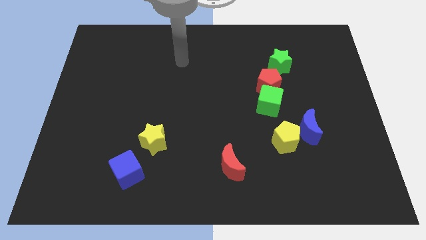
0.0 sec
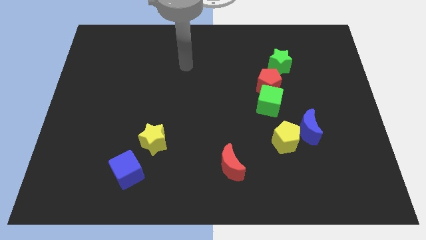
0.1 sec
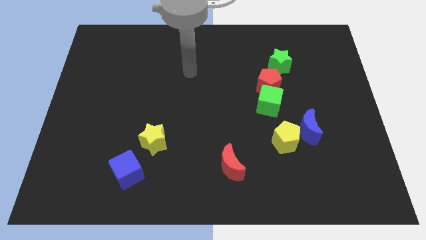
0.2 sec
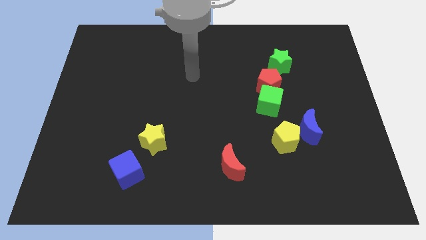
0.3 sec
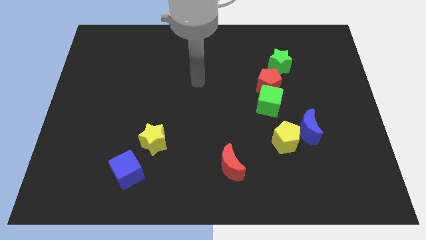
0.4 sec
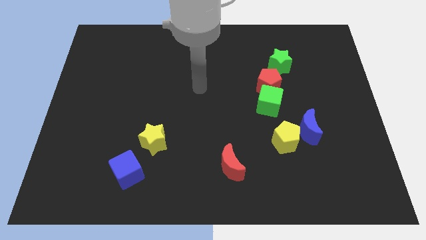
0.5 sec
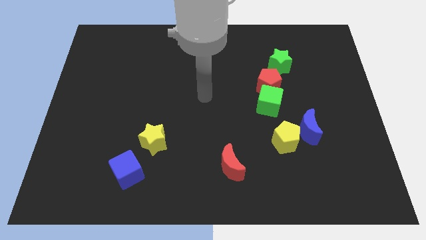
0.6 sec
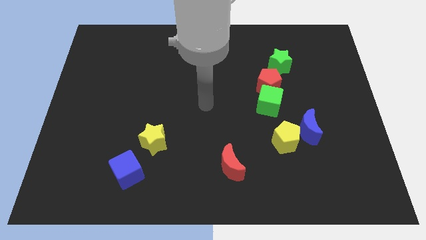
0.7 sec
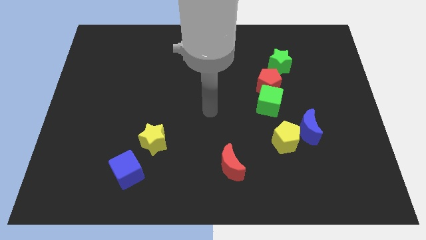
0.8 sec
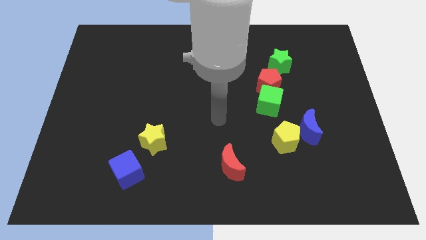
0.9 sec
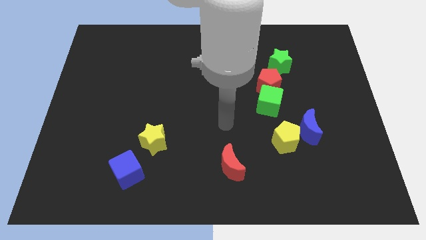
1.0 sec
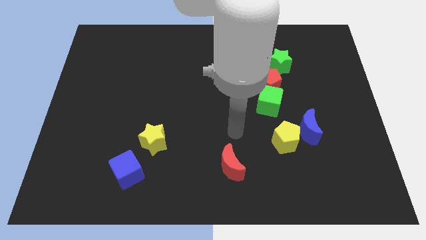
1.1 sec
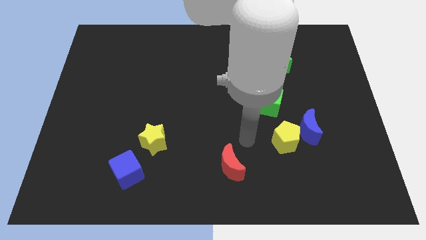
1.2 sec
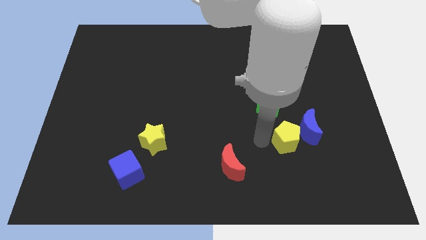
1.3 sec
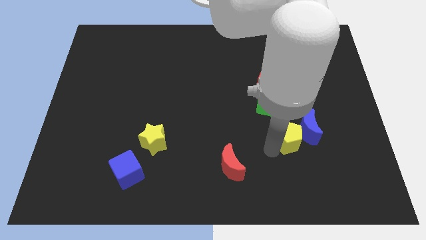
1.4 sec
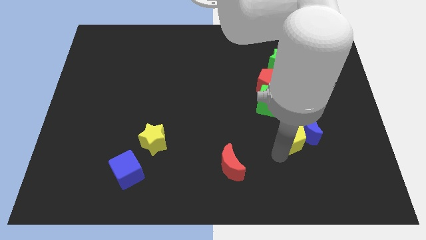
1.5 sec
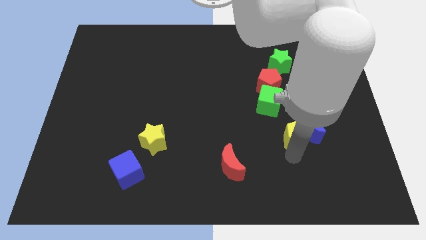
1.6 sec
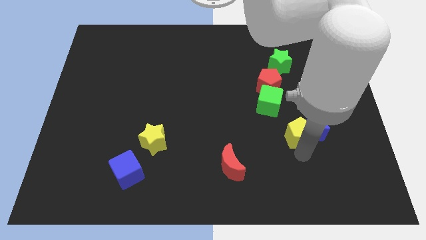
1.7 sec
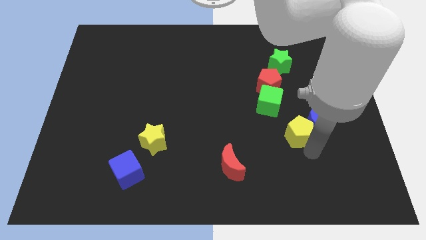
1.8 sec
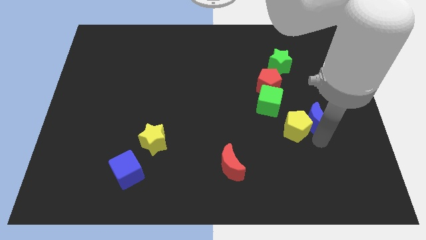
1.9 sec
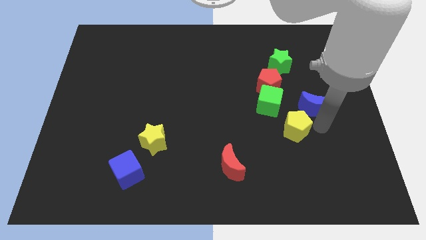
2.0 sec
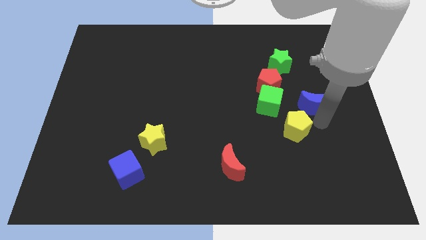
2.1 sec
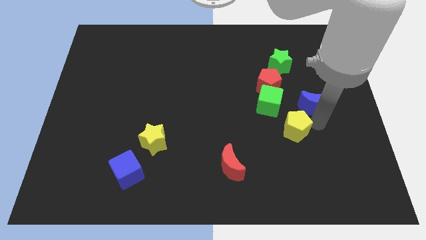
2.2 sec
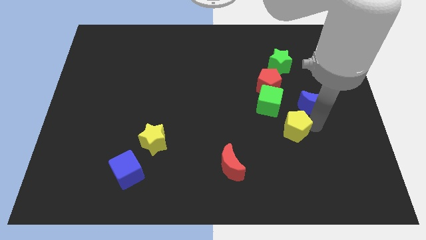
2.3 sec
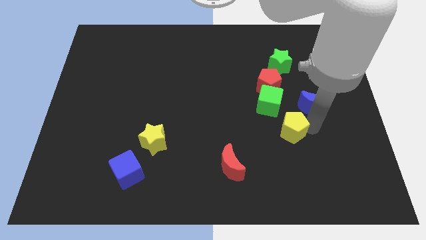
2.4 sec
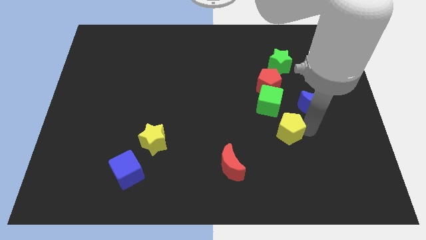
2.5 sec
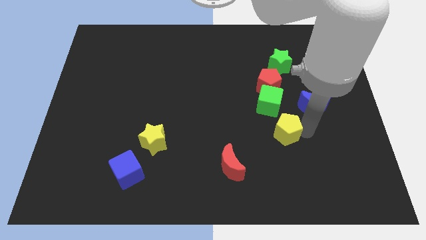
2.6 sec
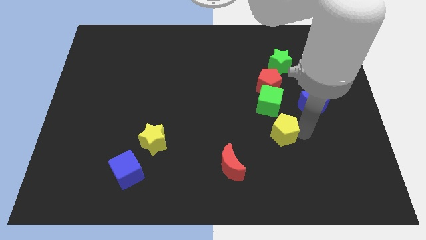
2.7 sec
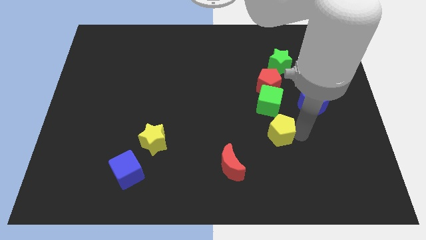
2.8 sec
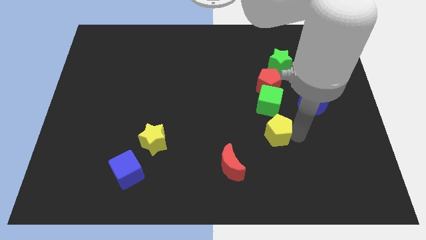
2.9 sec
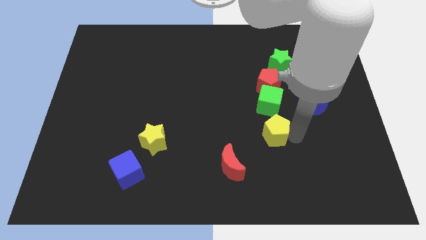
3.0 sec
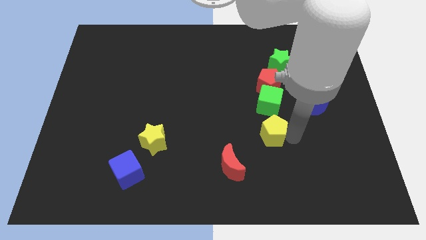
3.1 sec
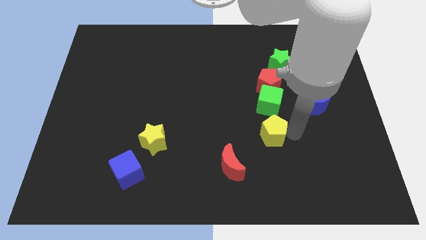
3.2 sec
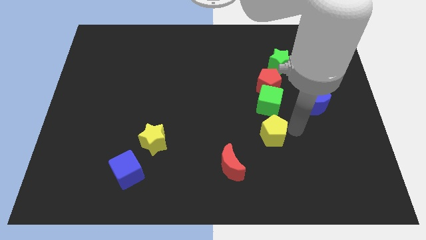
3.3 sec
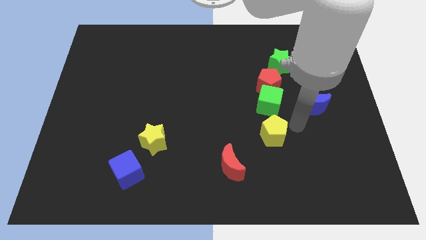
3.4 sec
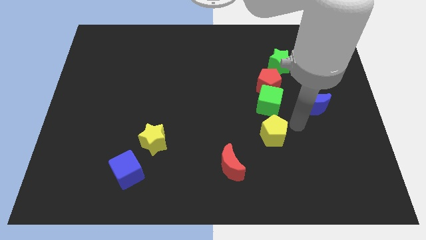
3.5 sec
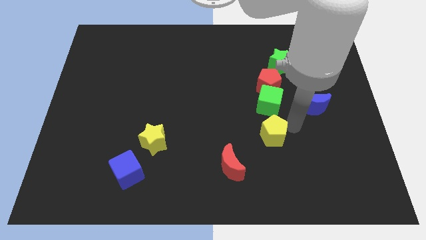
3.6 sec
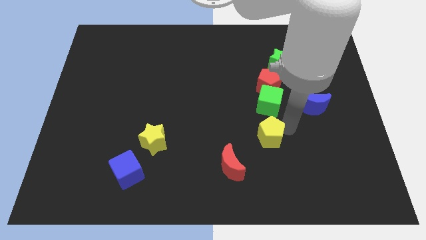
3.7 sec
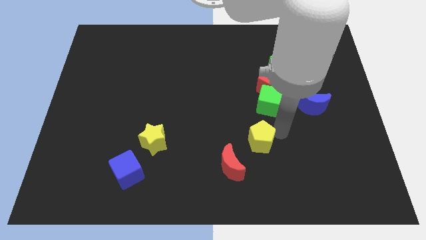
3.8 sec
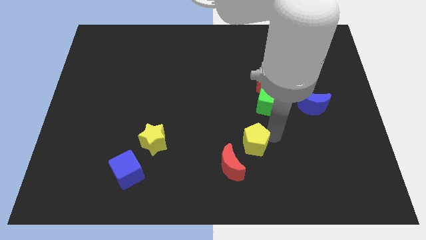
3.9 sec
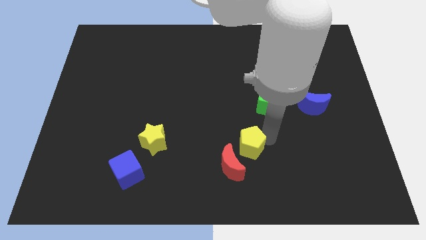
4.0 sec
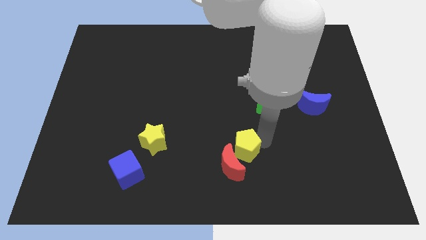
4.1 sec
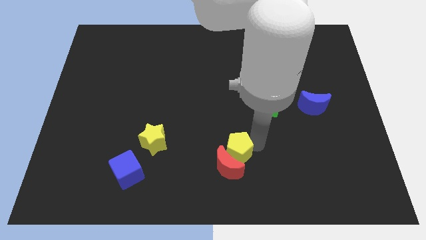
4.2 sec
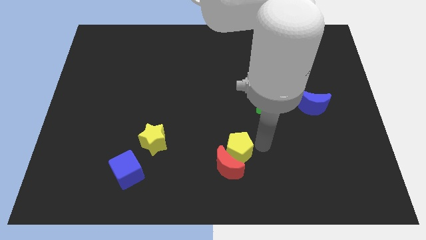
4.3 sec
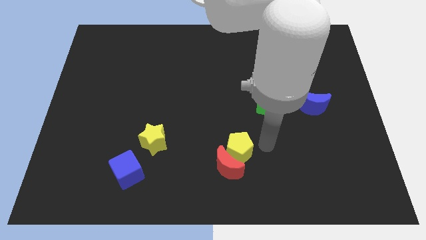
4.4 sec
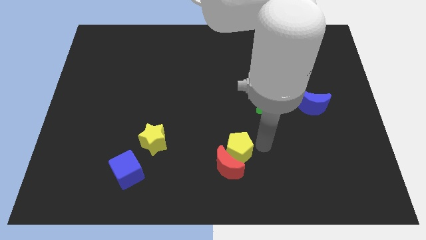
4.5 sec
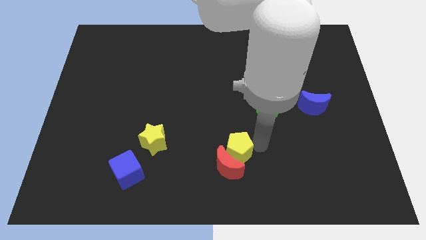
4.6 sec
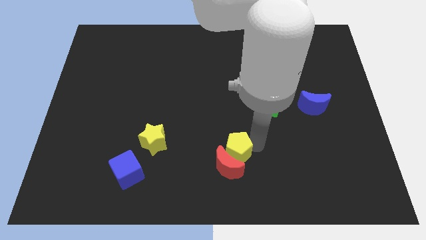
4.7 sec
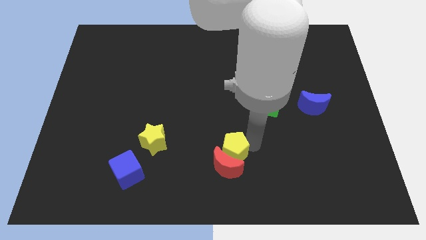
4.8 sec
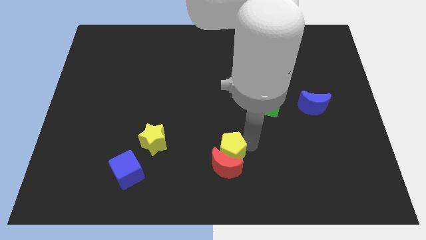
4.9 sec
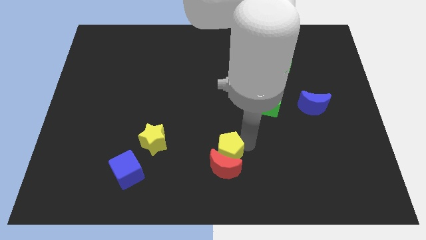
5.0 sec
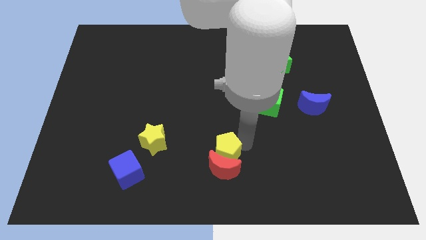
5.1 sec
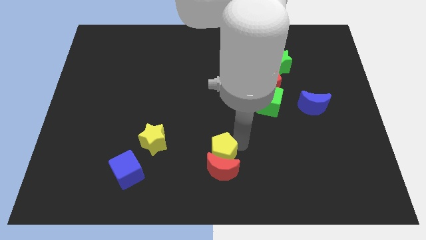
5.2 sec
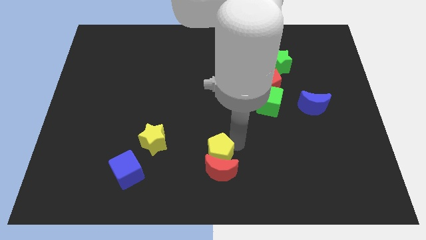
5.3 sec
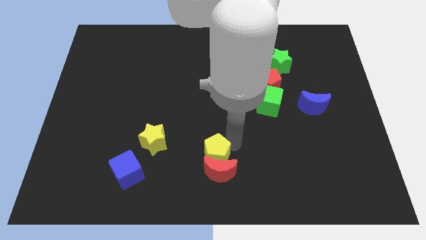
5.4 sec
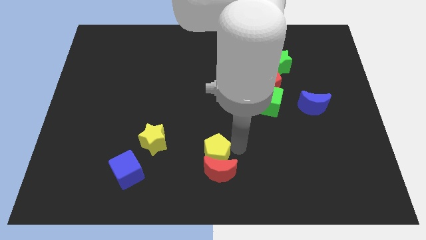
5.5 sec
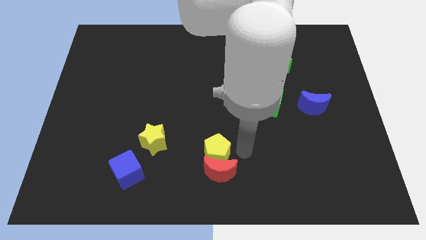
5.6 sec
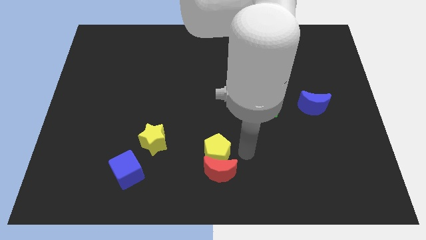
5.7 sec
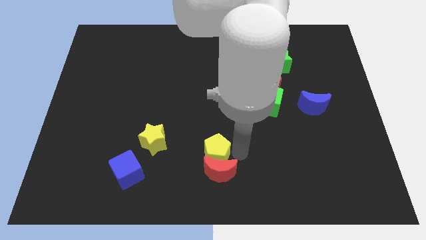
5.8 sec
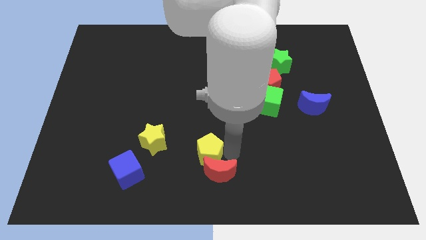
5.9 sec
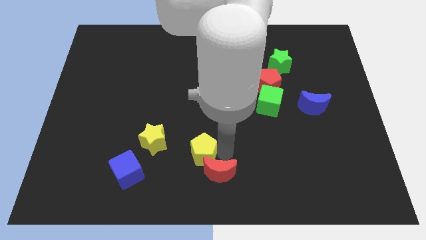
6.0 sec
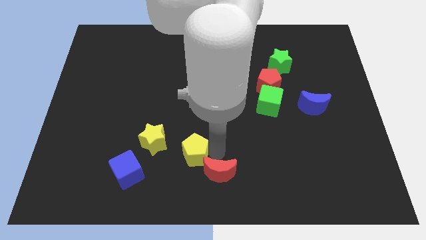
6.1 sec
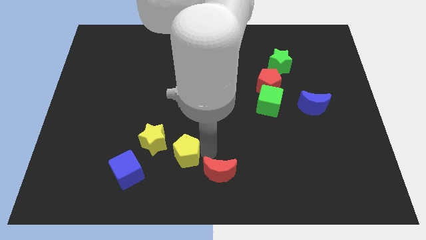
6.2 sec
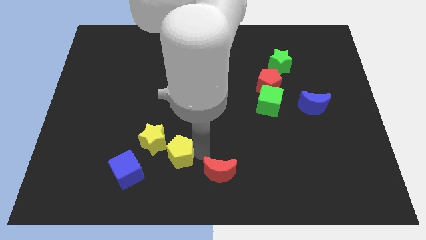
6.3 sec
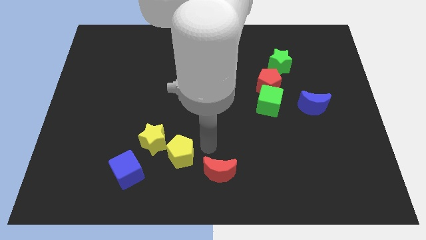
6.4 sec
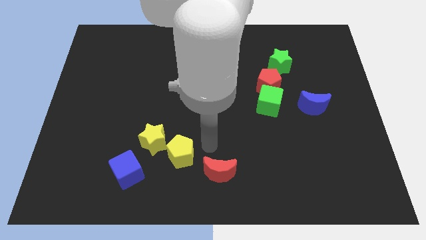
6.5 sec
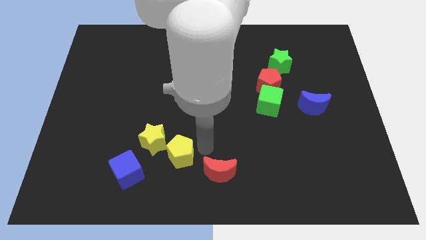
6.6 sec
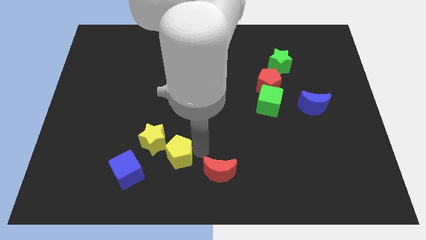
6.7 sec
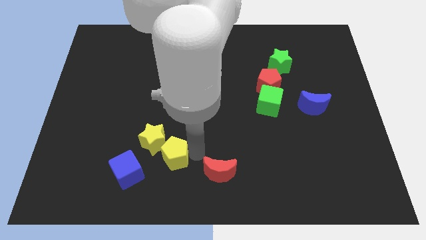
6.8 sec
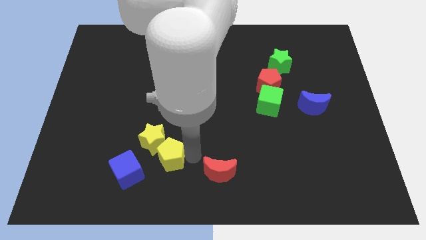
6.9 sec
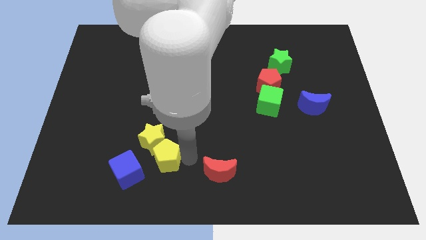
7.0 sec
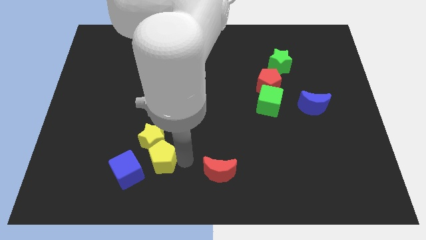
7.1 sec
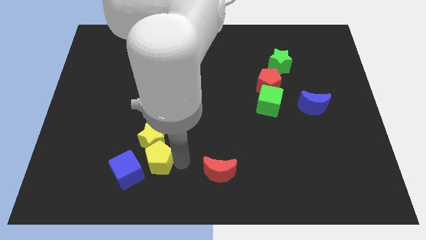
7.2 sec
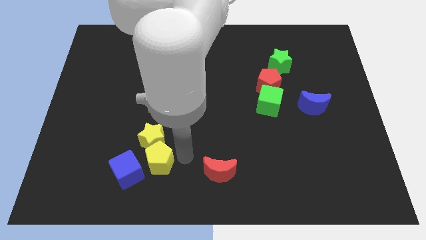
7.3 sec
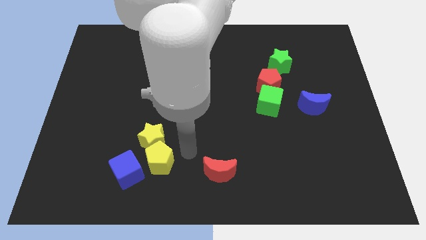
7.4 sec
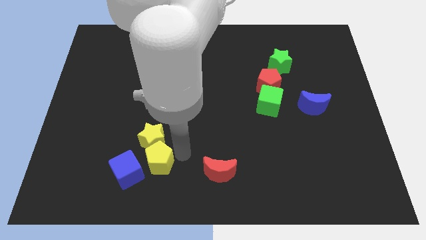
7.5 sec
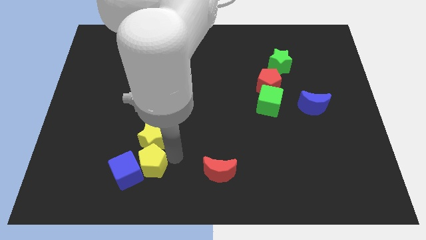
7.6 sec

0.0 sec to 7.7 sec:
push the yellow pentagon towards the blue cube
